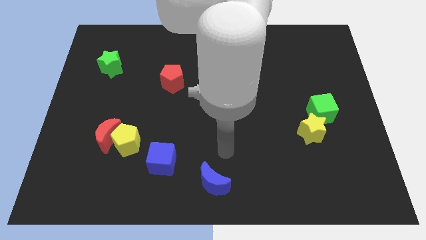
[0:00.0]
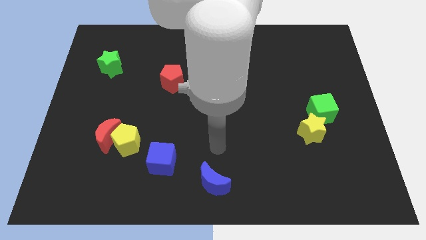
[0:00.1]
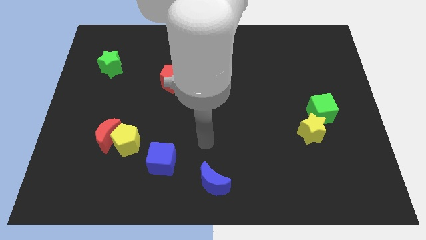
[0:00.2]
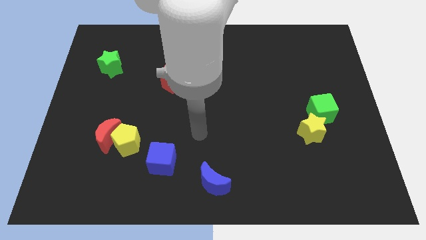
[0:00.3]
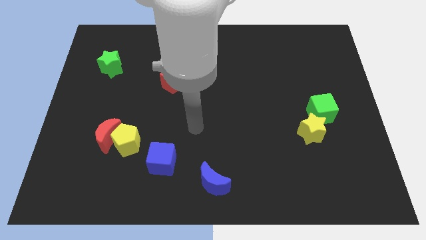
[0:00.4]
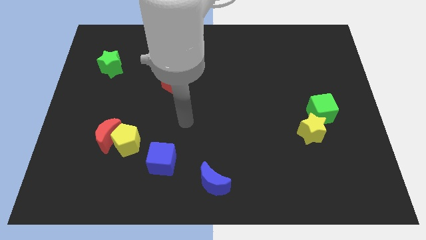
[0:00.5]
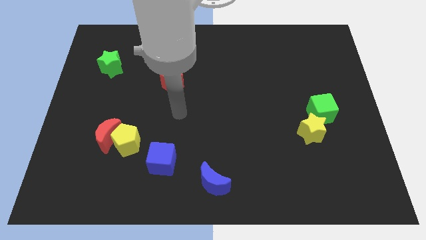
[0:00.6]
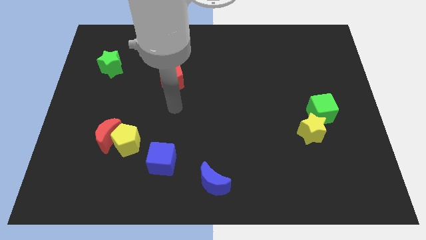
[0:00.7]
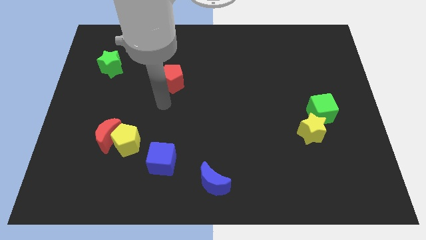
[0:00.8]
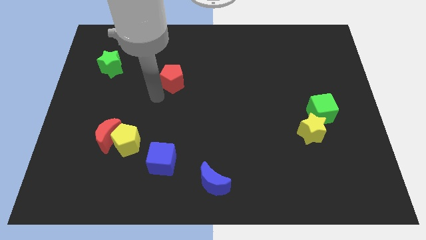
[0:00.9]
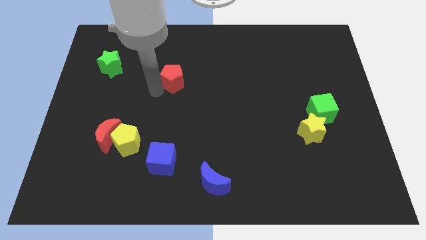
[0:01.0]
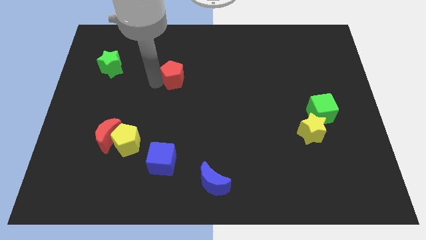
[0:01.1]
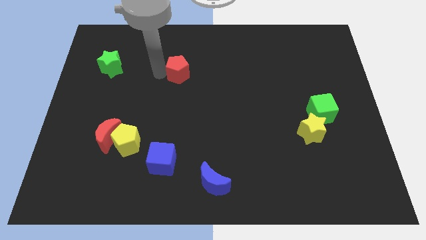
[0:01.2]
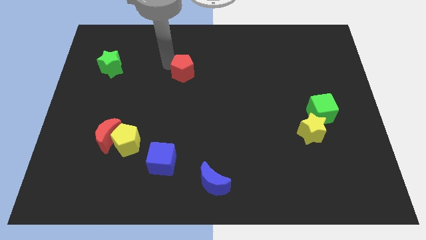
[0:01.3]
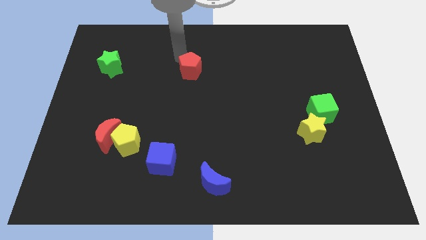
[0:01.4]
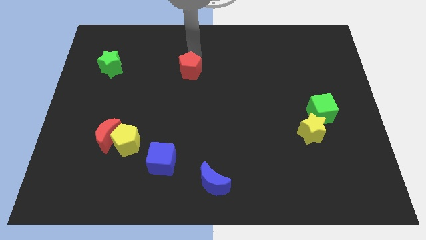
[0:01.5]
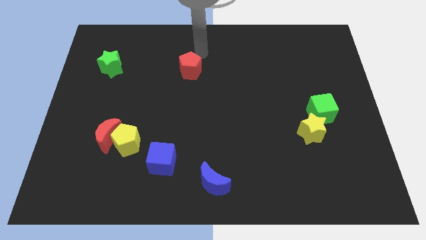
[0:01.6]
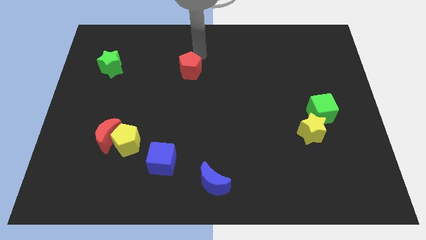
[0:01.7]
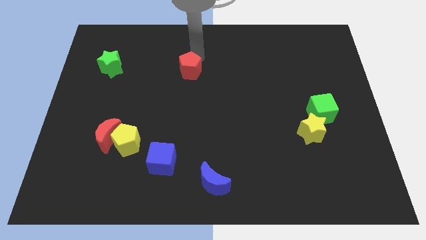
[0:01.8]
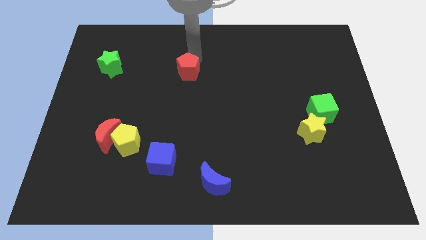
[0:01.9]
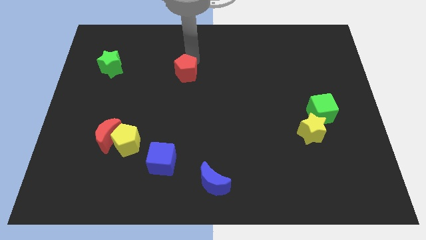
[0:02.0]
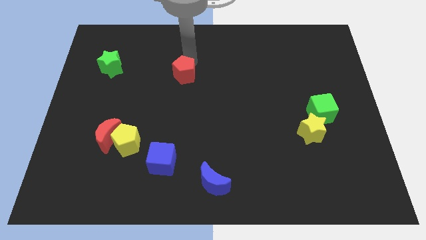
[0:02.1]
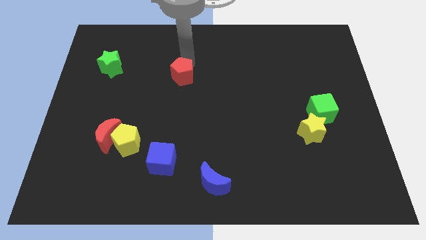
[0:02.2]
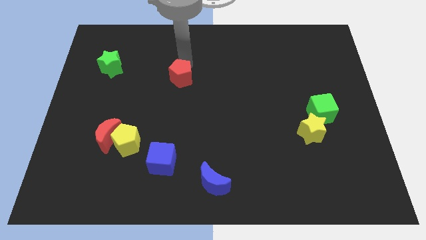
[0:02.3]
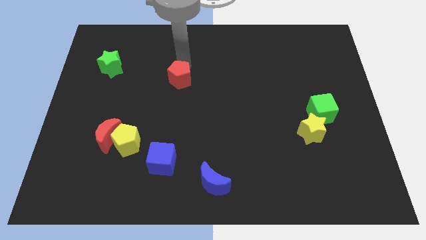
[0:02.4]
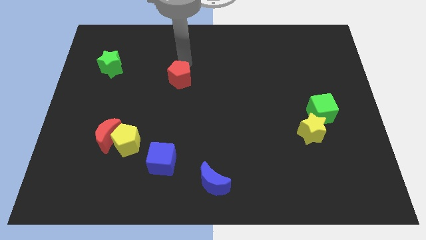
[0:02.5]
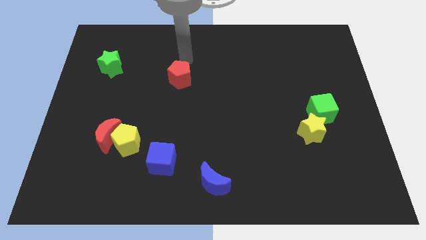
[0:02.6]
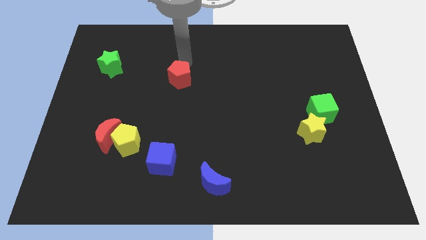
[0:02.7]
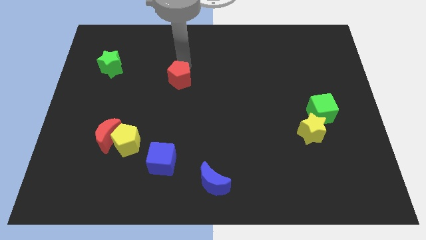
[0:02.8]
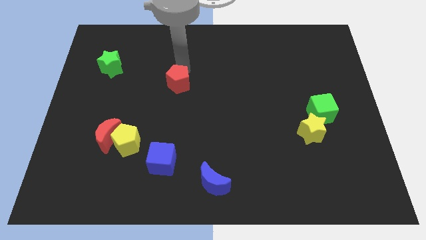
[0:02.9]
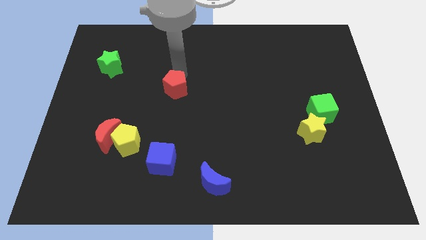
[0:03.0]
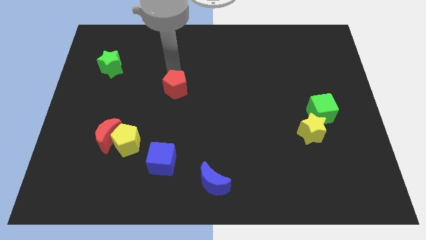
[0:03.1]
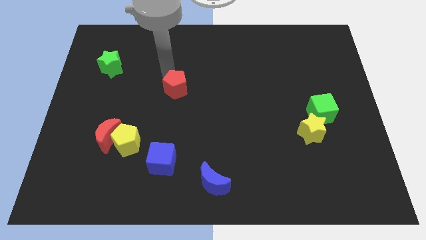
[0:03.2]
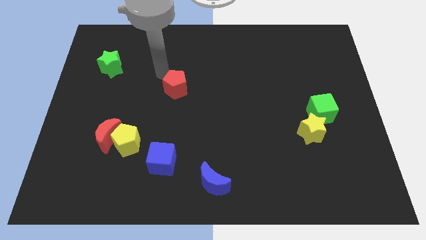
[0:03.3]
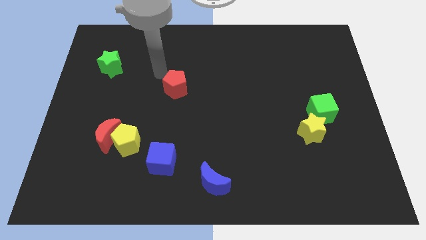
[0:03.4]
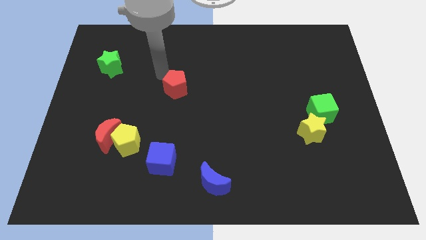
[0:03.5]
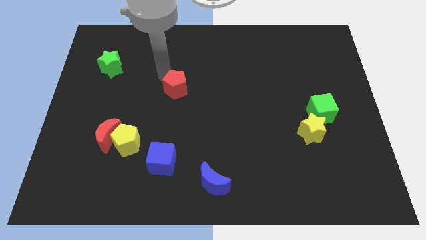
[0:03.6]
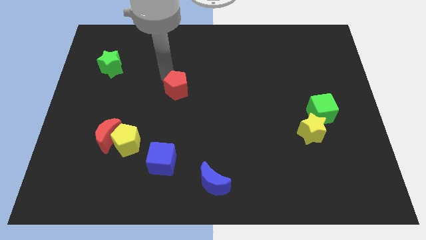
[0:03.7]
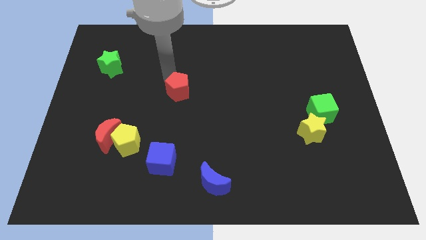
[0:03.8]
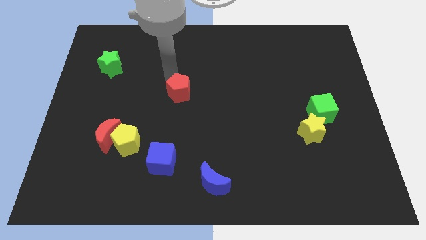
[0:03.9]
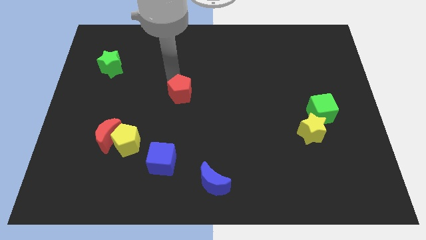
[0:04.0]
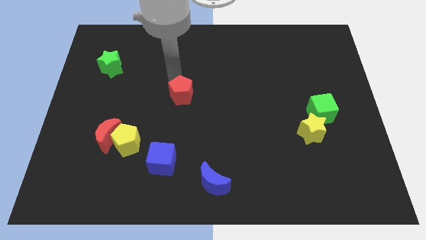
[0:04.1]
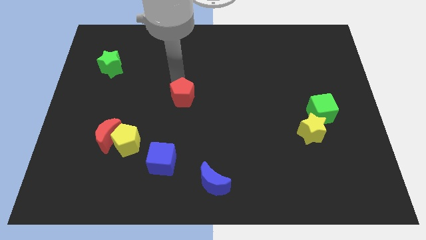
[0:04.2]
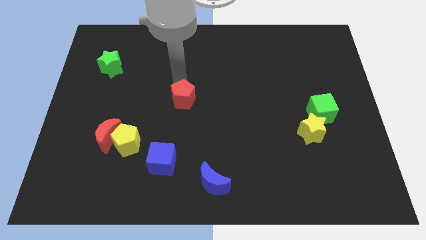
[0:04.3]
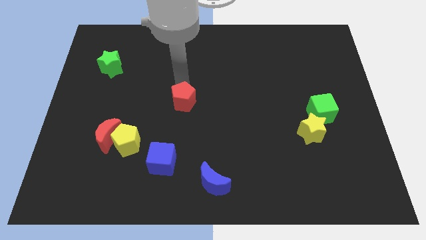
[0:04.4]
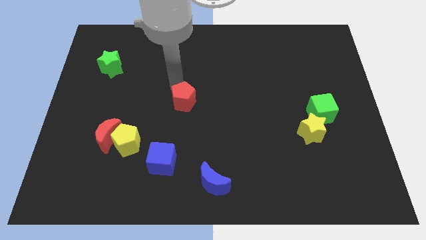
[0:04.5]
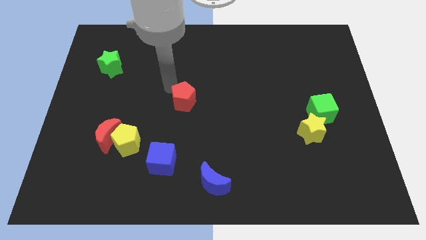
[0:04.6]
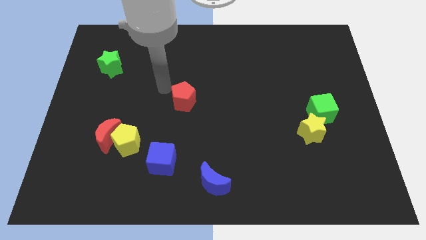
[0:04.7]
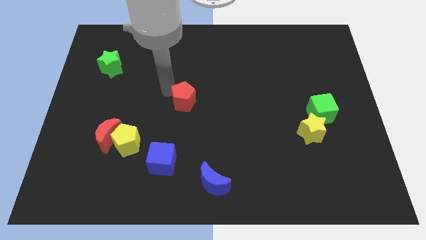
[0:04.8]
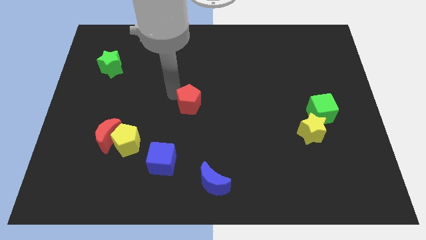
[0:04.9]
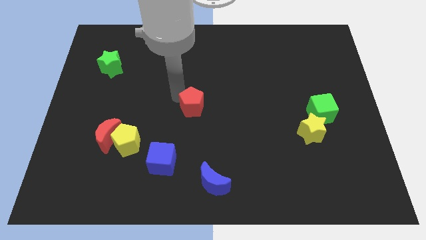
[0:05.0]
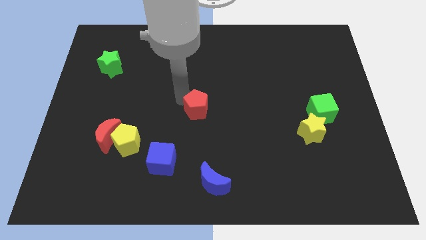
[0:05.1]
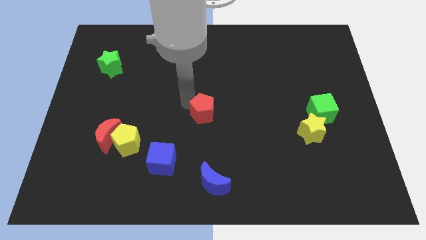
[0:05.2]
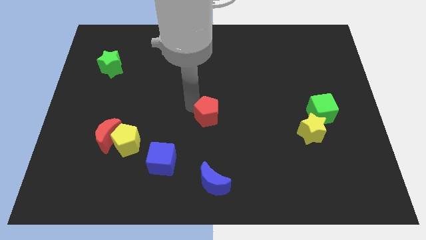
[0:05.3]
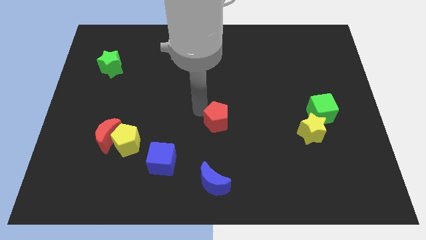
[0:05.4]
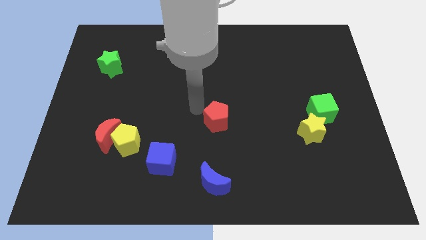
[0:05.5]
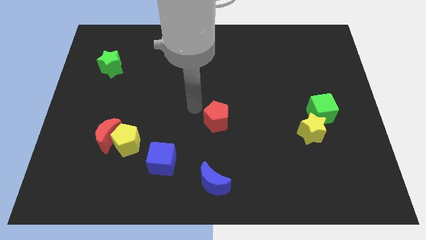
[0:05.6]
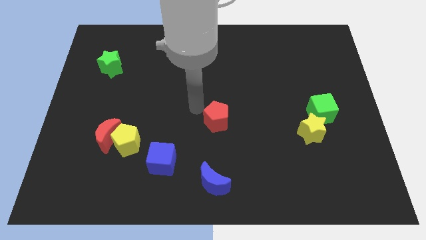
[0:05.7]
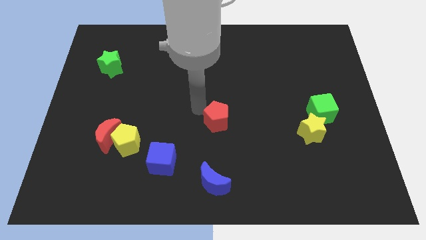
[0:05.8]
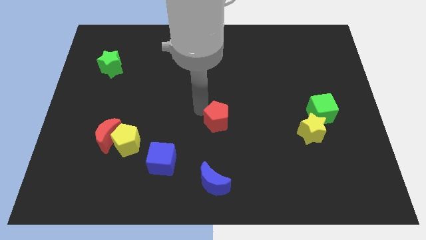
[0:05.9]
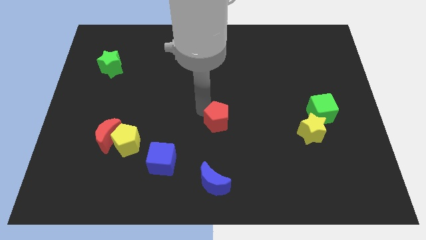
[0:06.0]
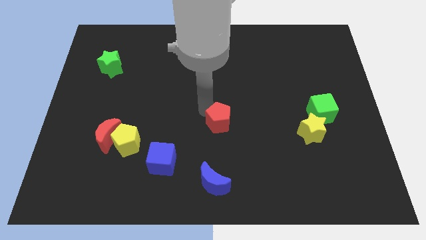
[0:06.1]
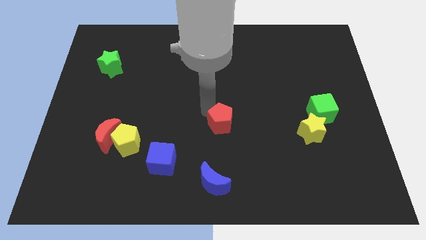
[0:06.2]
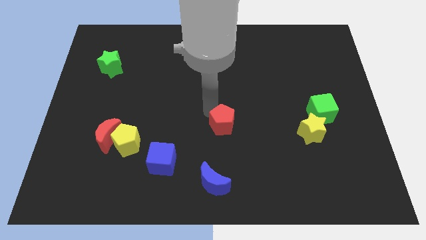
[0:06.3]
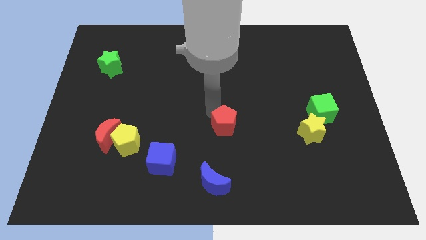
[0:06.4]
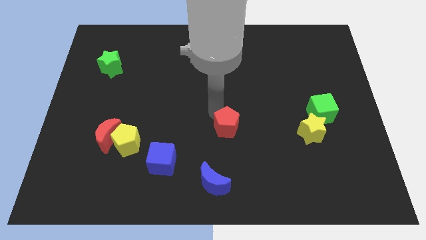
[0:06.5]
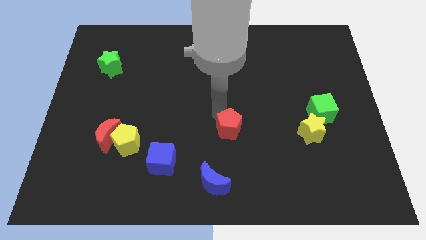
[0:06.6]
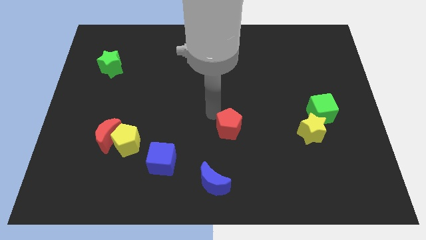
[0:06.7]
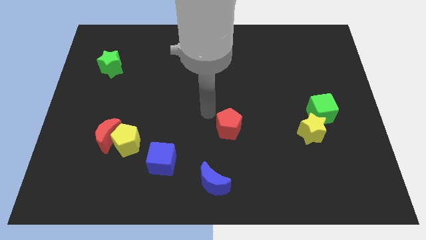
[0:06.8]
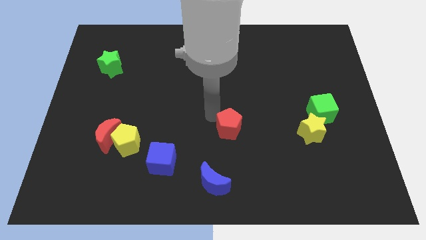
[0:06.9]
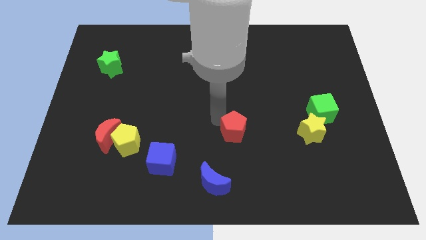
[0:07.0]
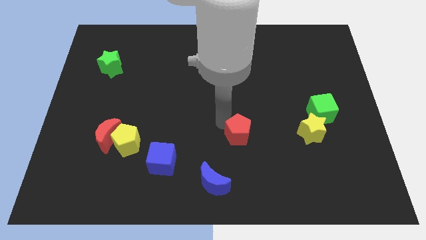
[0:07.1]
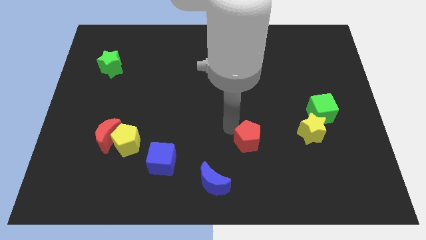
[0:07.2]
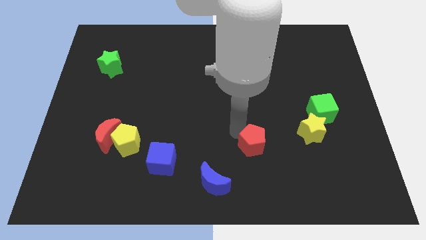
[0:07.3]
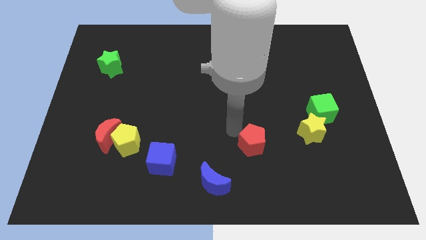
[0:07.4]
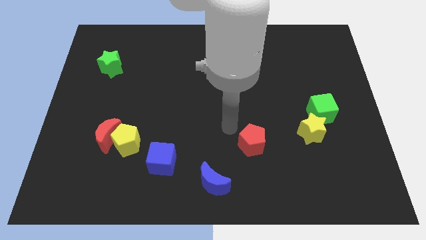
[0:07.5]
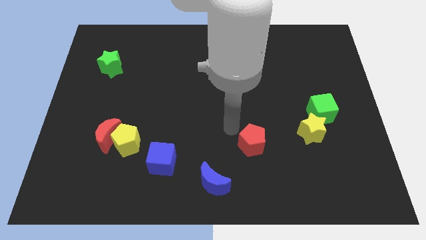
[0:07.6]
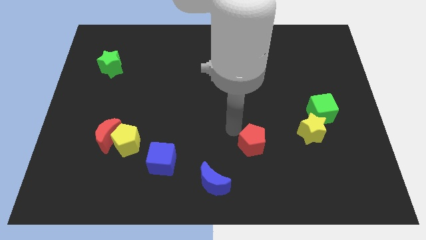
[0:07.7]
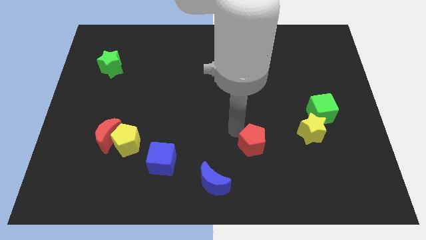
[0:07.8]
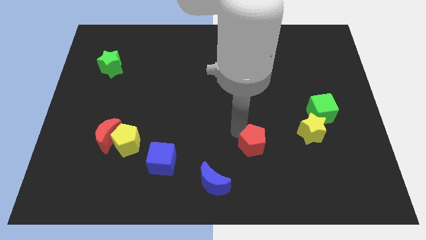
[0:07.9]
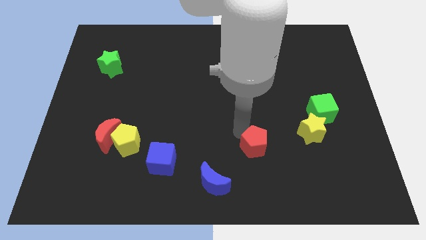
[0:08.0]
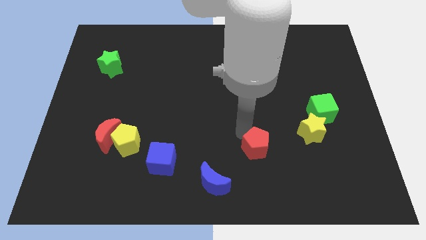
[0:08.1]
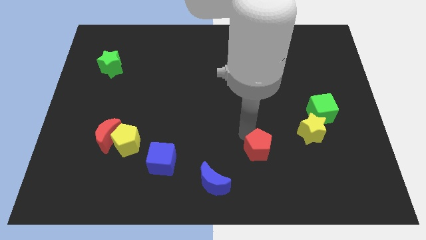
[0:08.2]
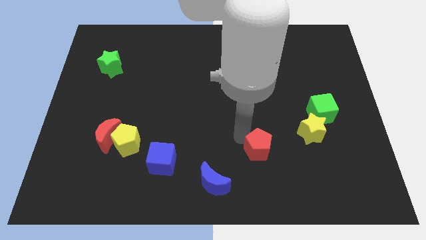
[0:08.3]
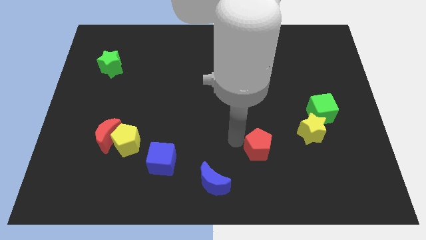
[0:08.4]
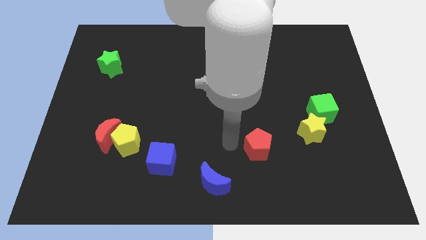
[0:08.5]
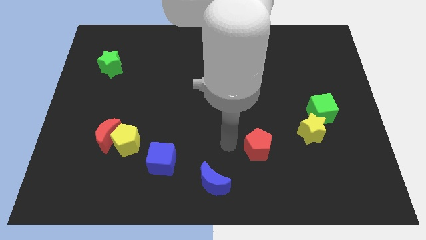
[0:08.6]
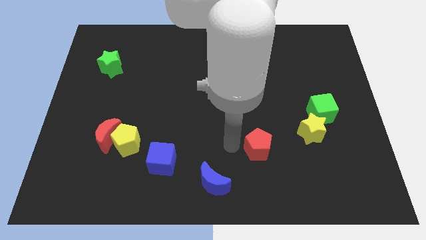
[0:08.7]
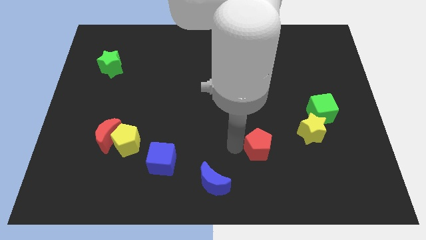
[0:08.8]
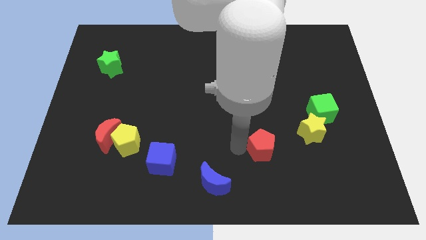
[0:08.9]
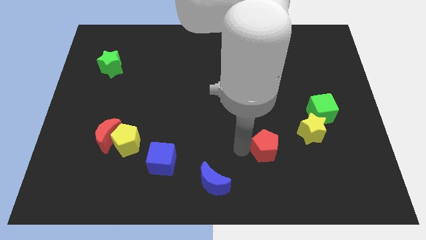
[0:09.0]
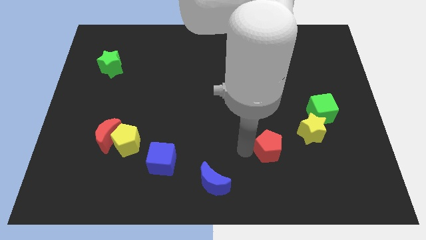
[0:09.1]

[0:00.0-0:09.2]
push the red pentagon diagonally down and to the left of the yellow star
